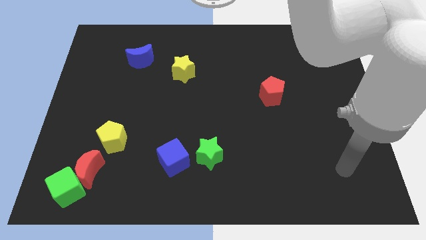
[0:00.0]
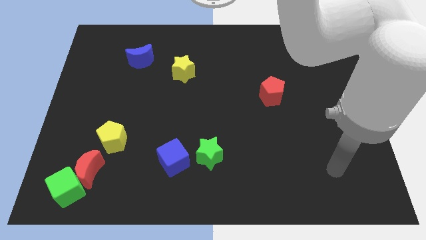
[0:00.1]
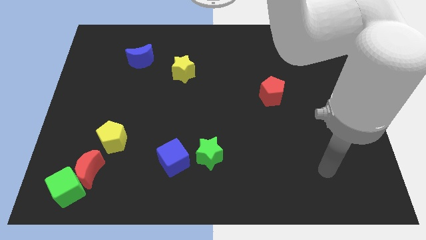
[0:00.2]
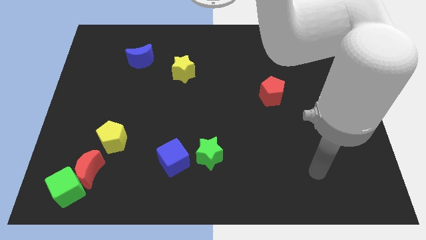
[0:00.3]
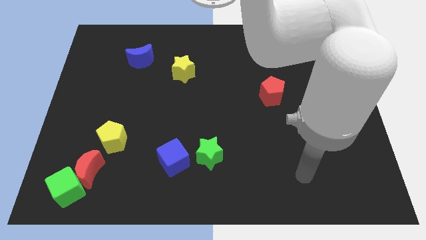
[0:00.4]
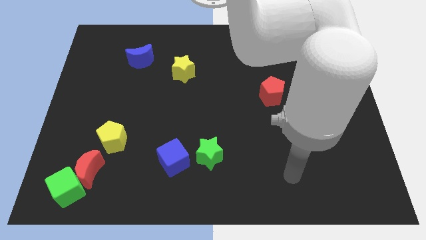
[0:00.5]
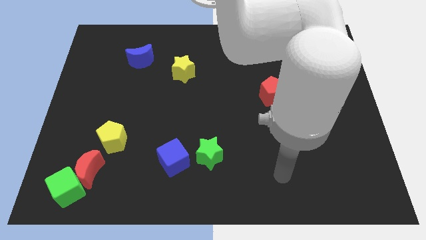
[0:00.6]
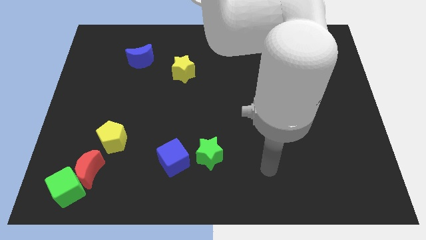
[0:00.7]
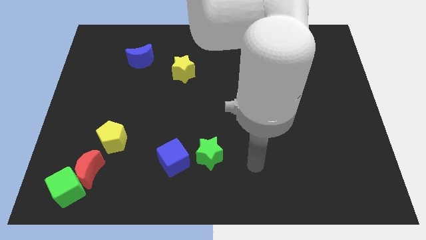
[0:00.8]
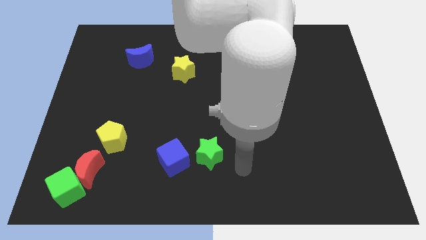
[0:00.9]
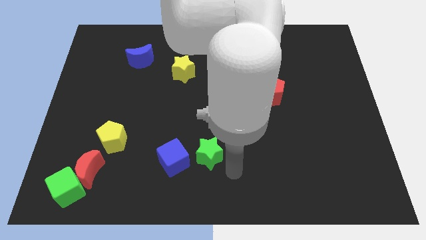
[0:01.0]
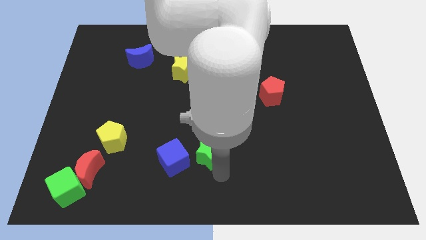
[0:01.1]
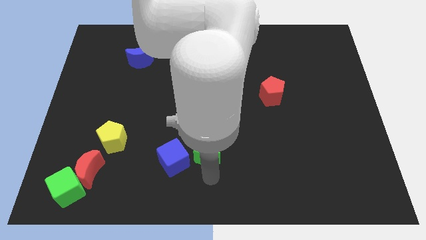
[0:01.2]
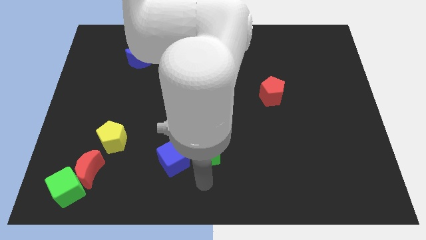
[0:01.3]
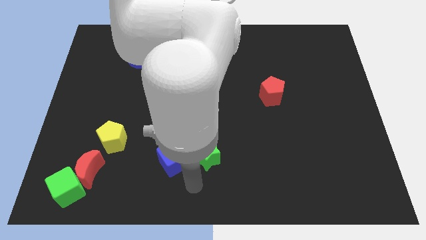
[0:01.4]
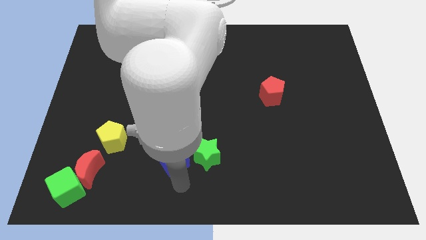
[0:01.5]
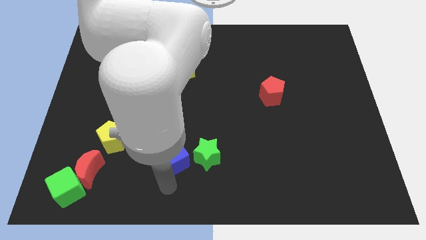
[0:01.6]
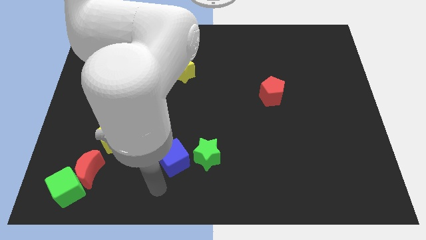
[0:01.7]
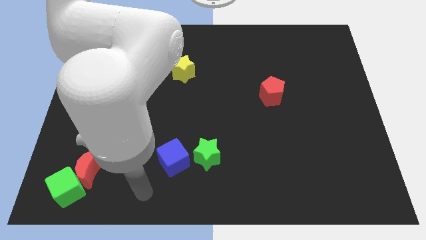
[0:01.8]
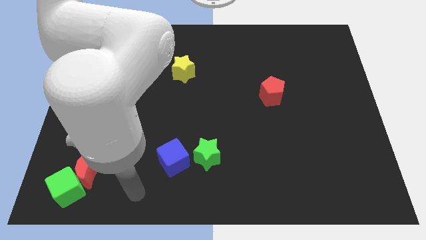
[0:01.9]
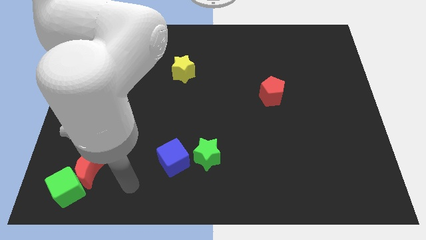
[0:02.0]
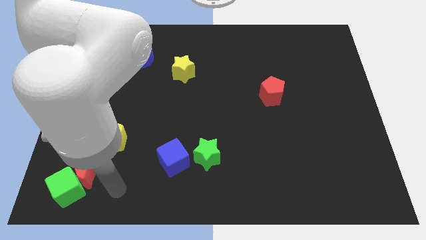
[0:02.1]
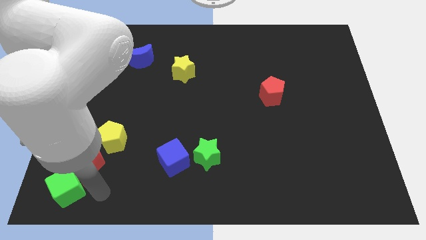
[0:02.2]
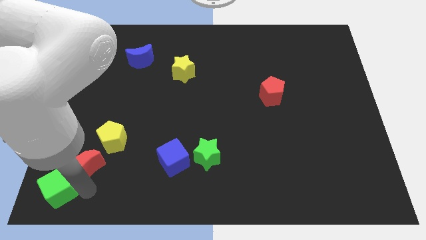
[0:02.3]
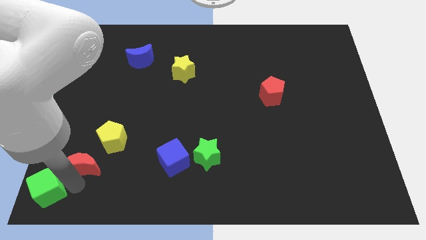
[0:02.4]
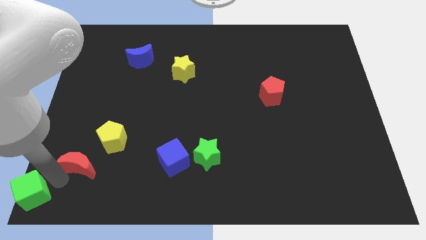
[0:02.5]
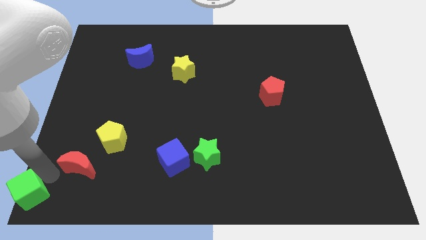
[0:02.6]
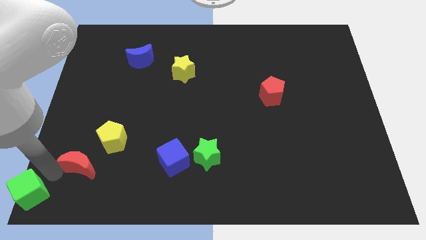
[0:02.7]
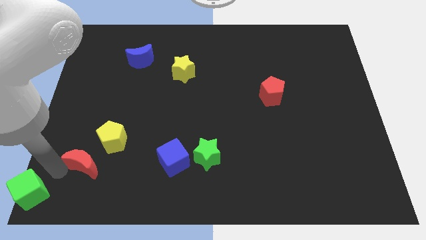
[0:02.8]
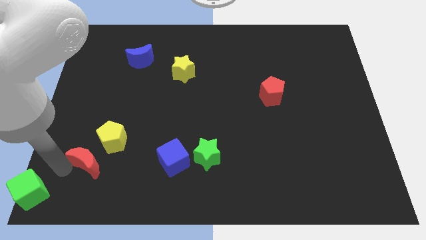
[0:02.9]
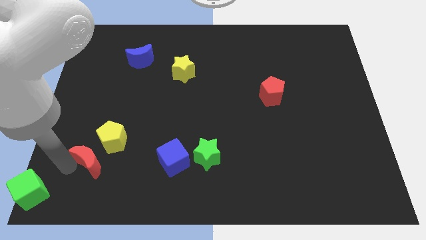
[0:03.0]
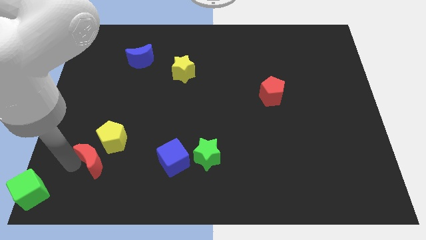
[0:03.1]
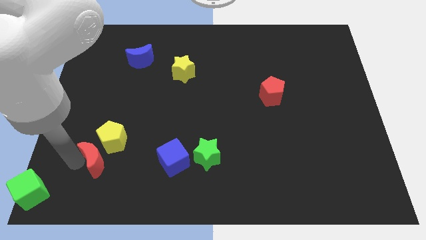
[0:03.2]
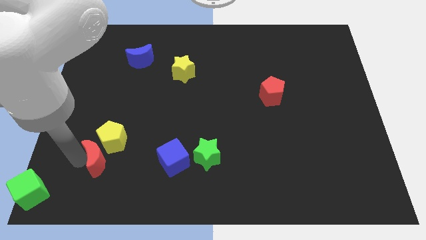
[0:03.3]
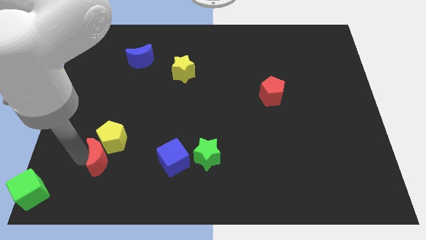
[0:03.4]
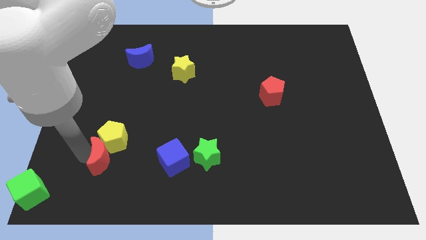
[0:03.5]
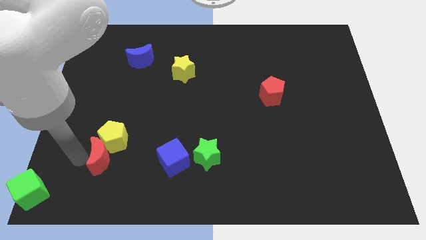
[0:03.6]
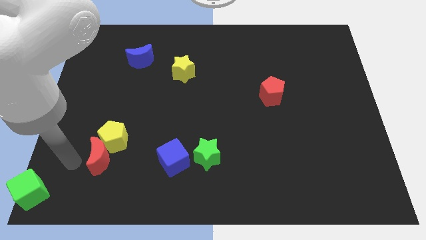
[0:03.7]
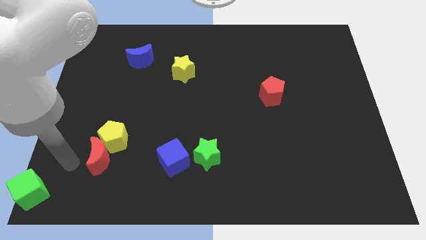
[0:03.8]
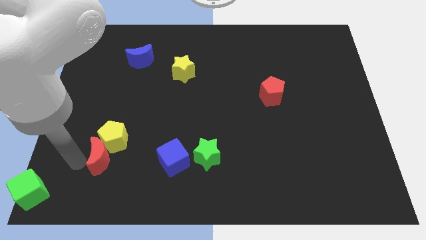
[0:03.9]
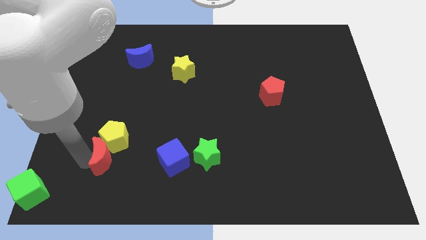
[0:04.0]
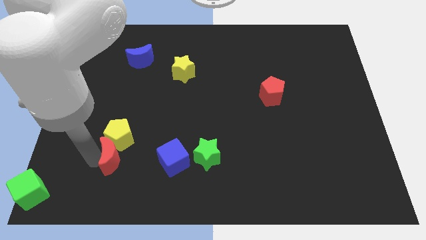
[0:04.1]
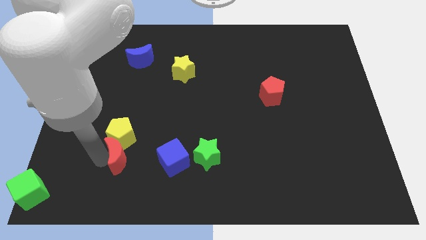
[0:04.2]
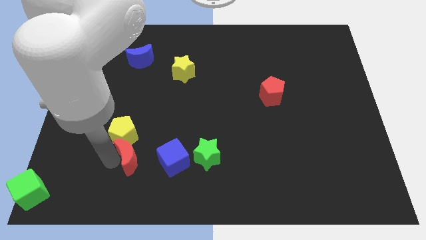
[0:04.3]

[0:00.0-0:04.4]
slightly push the red moon up and right

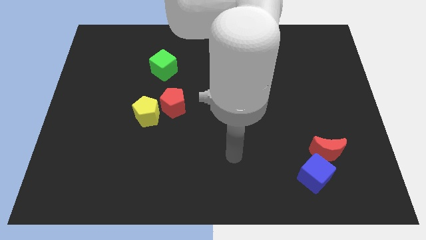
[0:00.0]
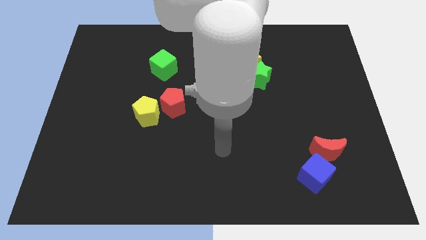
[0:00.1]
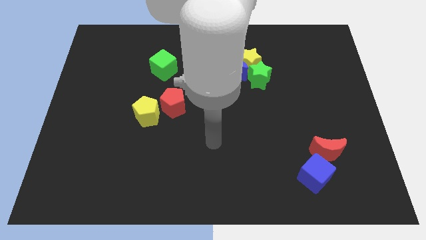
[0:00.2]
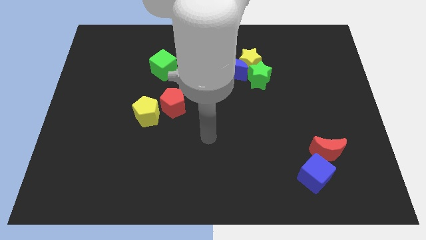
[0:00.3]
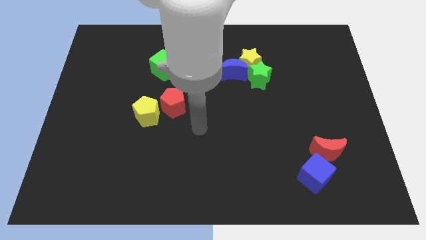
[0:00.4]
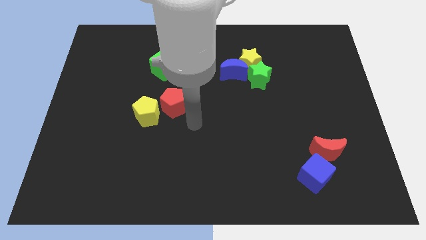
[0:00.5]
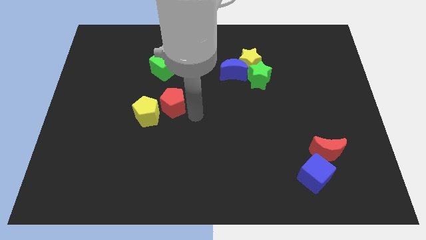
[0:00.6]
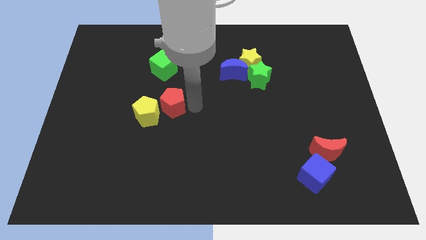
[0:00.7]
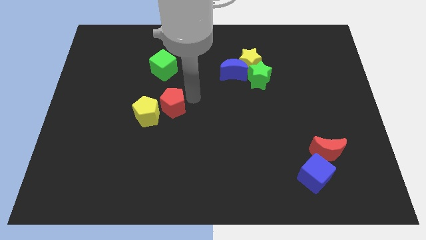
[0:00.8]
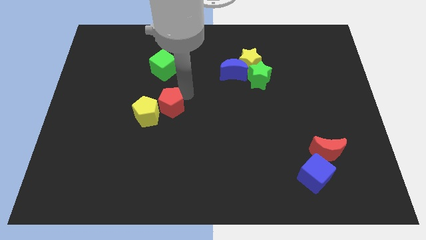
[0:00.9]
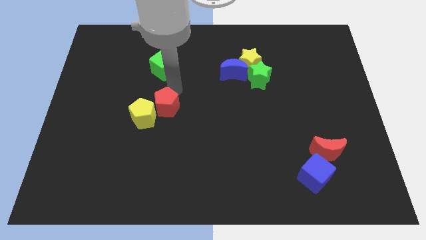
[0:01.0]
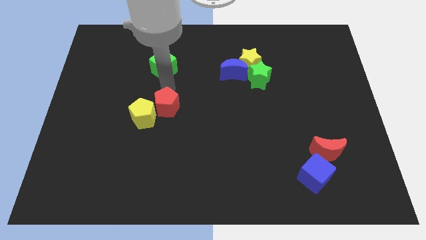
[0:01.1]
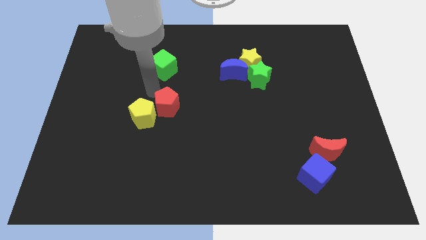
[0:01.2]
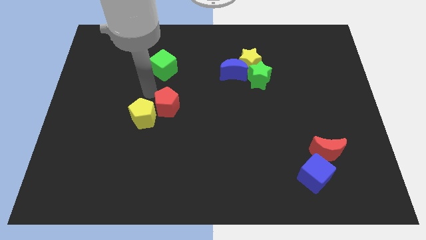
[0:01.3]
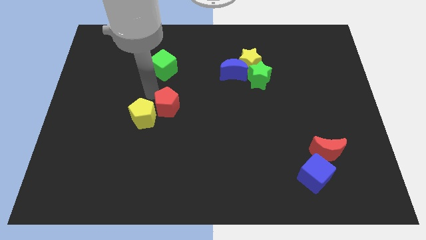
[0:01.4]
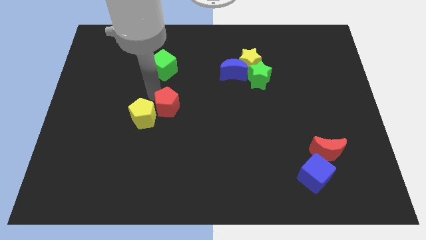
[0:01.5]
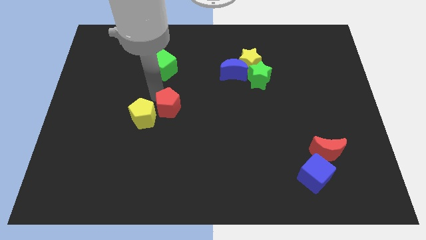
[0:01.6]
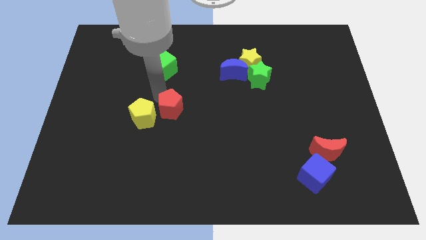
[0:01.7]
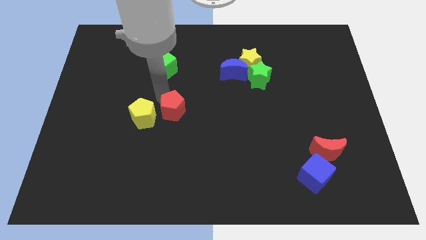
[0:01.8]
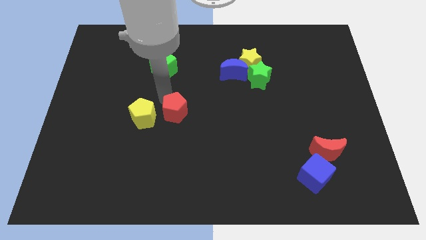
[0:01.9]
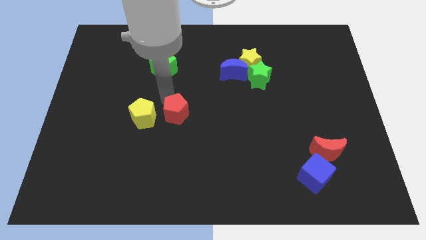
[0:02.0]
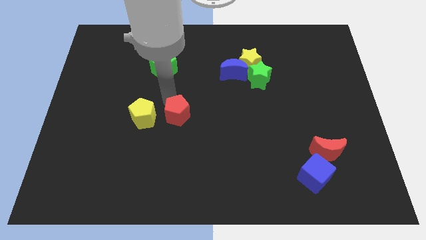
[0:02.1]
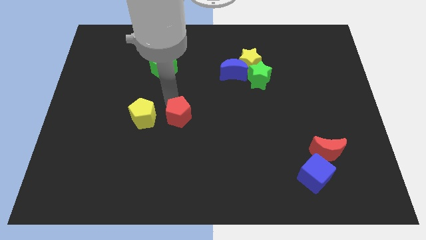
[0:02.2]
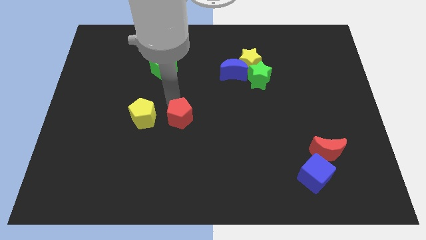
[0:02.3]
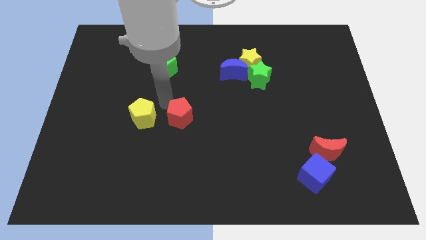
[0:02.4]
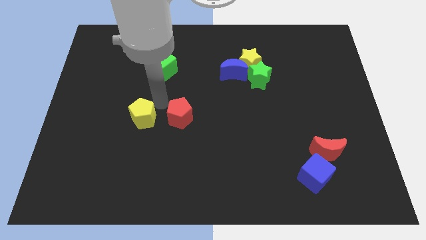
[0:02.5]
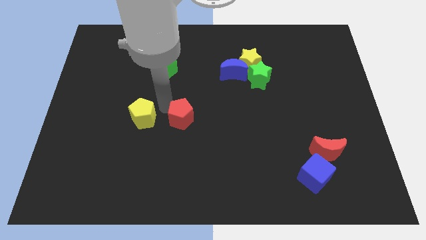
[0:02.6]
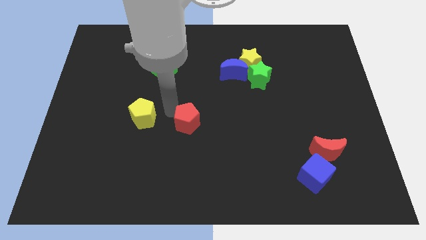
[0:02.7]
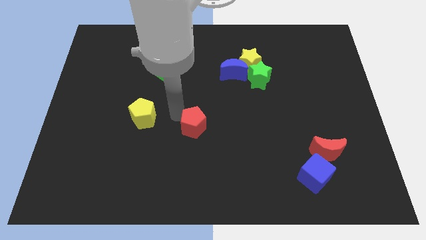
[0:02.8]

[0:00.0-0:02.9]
slide the red pentagon downwards and then right somewhat

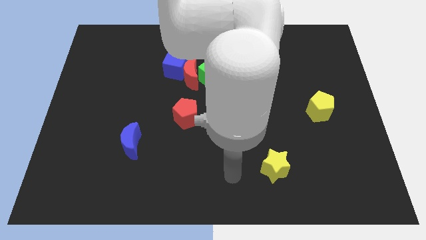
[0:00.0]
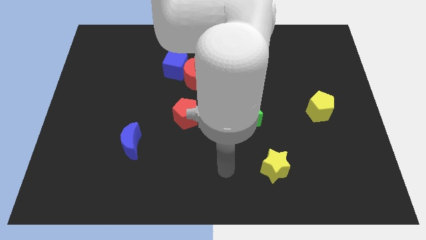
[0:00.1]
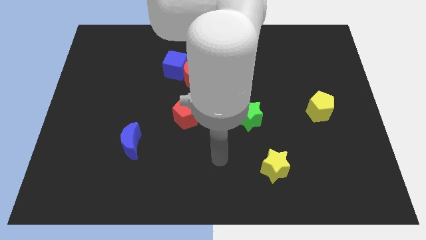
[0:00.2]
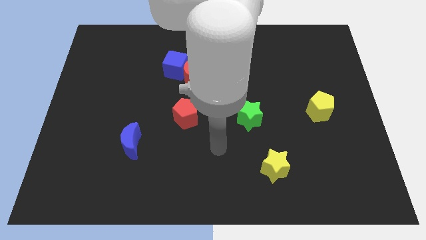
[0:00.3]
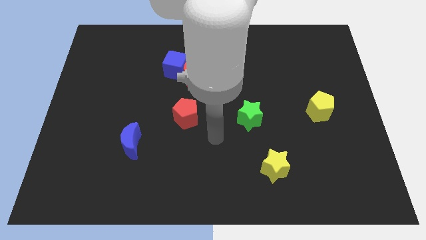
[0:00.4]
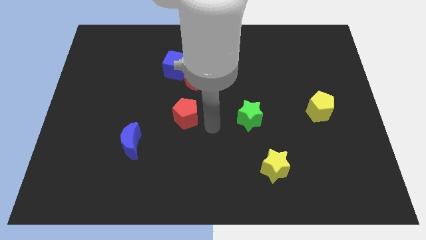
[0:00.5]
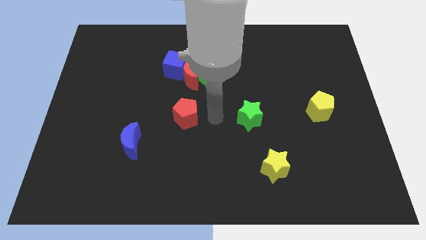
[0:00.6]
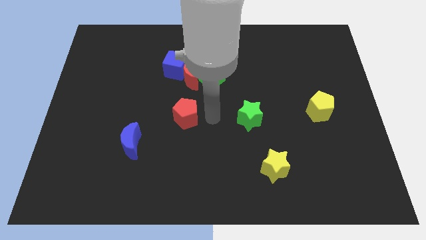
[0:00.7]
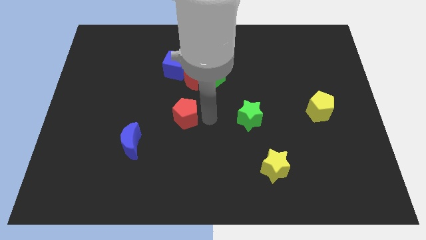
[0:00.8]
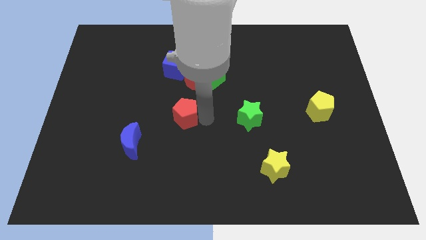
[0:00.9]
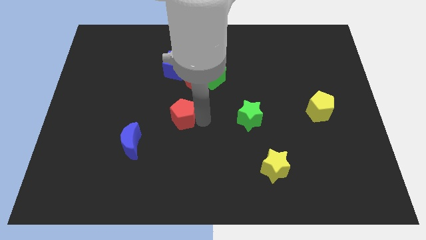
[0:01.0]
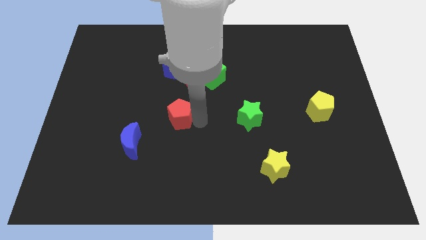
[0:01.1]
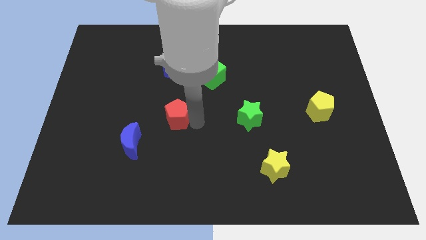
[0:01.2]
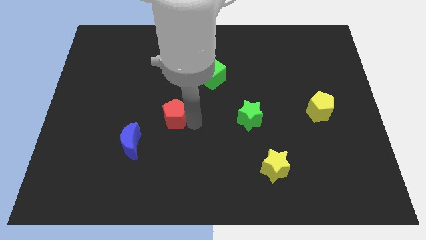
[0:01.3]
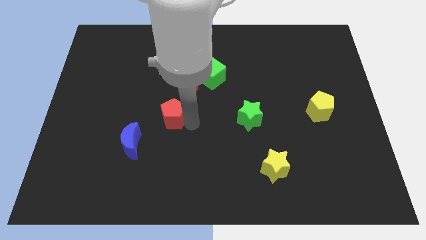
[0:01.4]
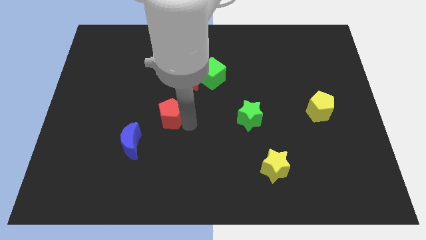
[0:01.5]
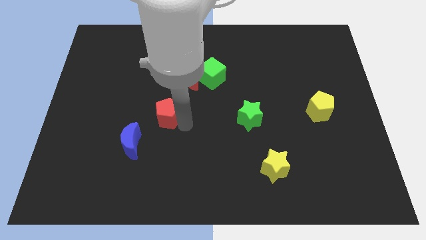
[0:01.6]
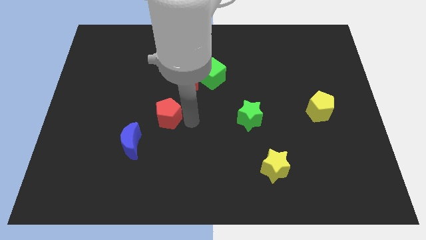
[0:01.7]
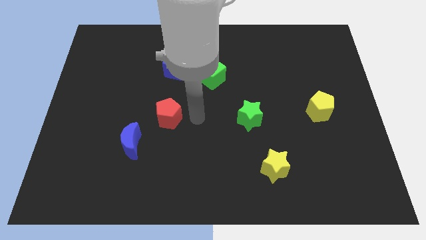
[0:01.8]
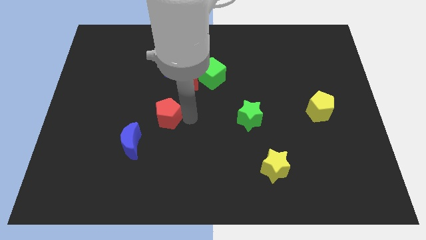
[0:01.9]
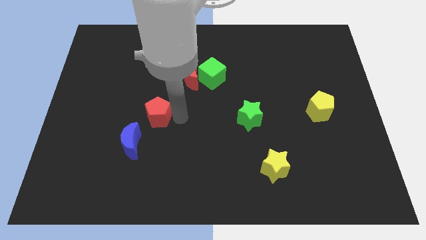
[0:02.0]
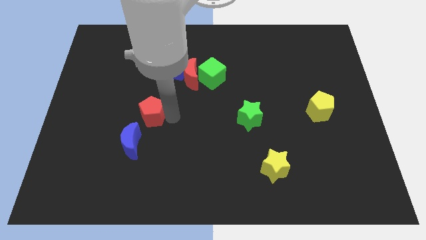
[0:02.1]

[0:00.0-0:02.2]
move the red pentagon left a little bit
